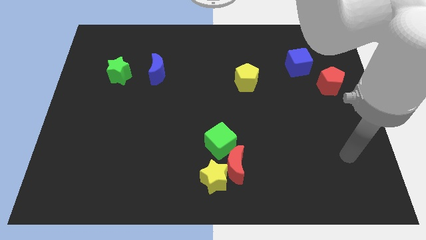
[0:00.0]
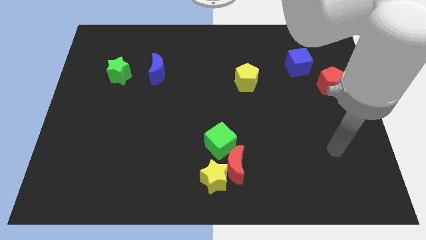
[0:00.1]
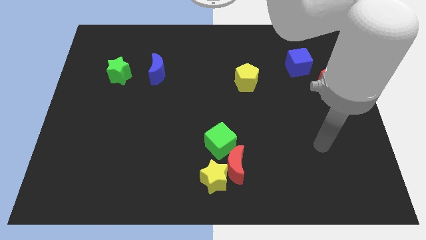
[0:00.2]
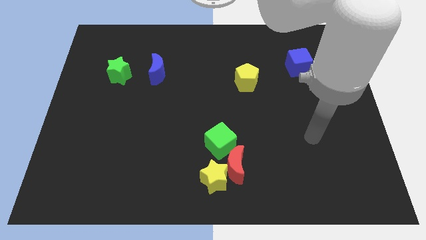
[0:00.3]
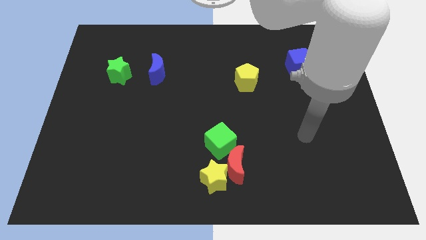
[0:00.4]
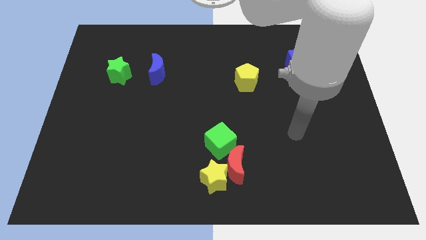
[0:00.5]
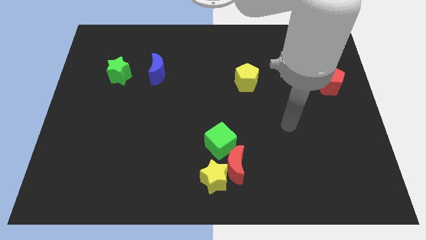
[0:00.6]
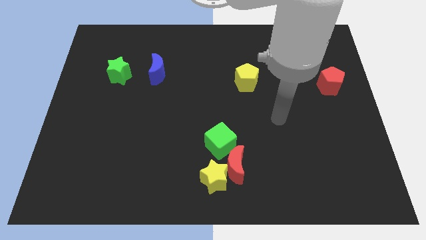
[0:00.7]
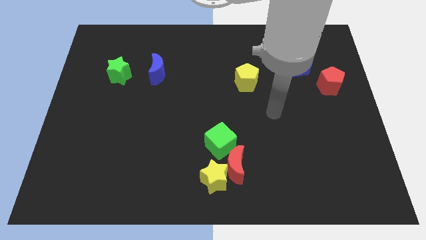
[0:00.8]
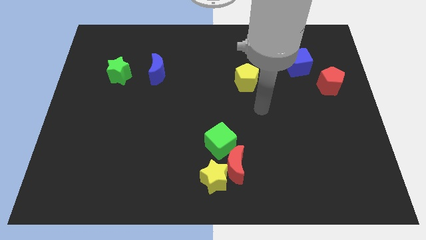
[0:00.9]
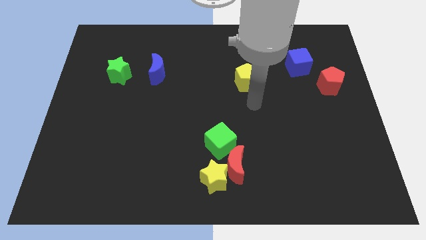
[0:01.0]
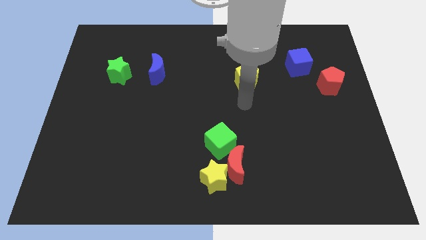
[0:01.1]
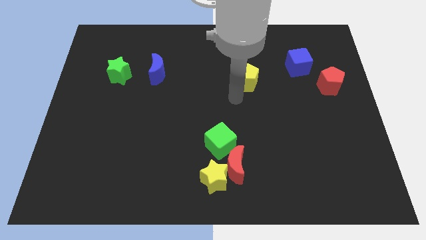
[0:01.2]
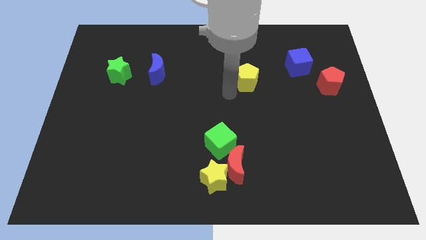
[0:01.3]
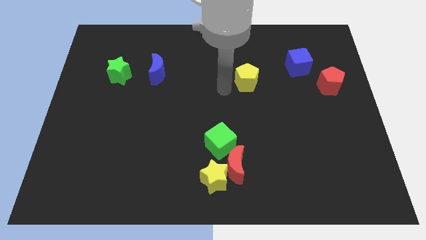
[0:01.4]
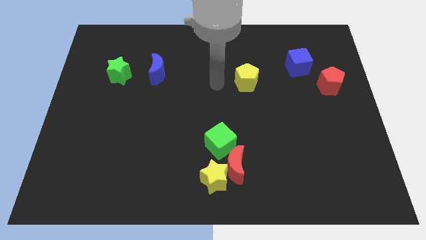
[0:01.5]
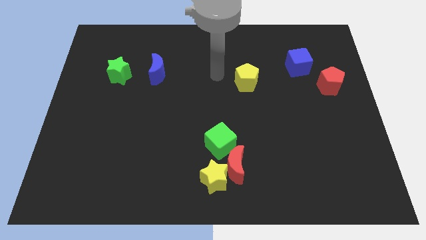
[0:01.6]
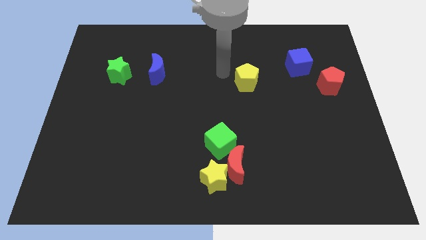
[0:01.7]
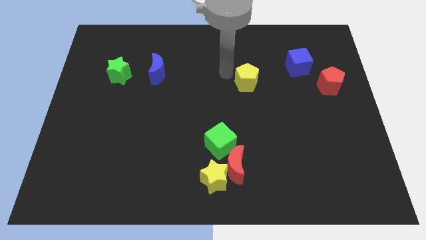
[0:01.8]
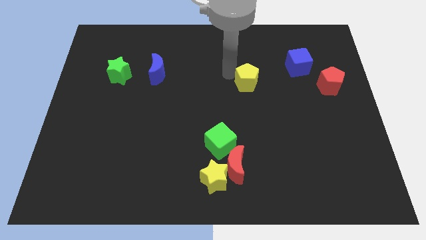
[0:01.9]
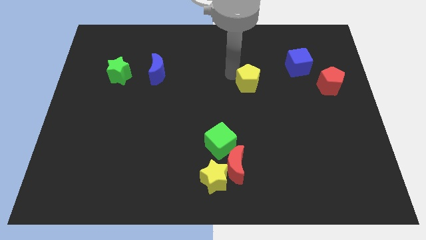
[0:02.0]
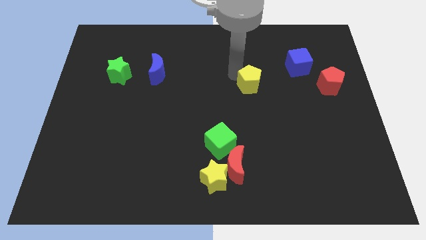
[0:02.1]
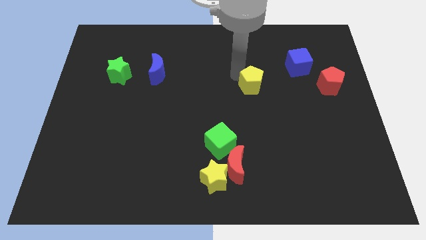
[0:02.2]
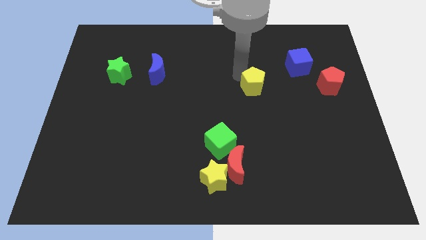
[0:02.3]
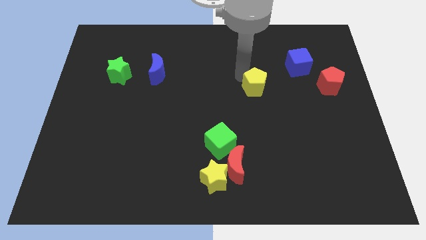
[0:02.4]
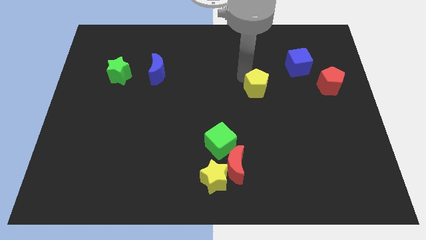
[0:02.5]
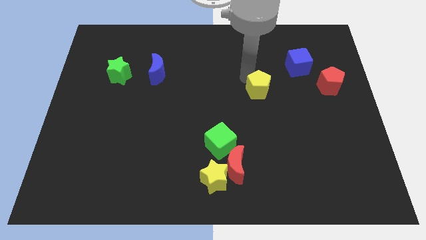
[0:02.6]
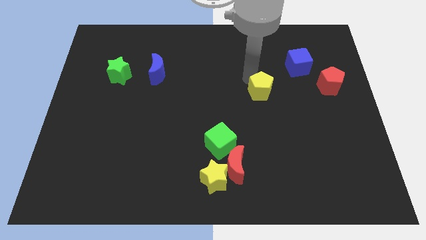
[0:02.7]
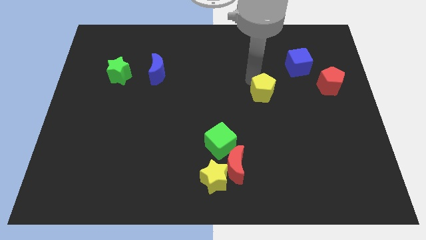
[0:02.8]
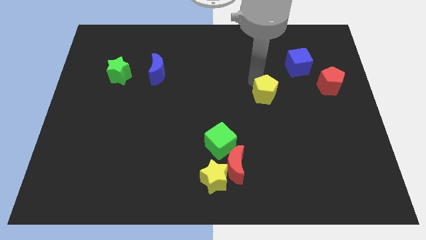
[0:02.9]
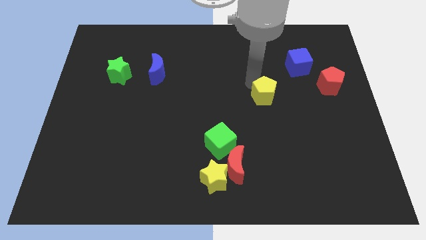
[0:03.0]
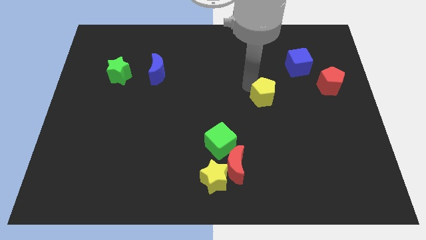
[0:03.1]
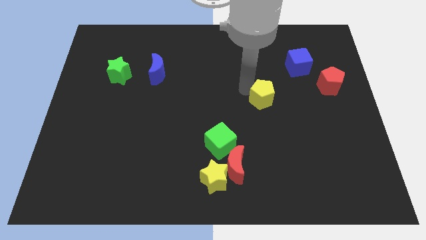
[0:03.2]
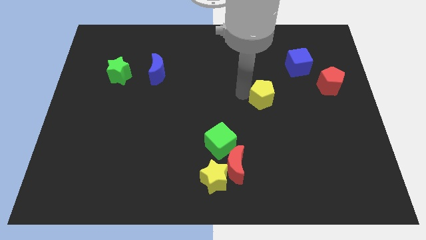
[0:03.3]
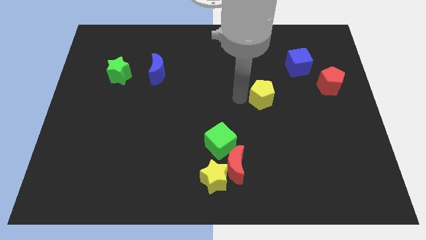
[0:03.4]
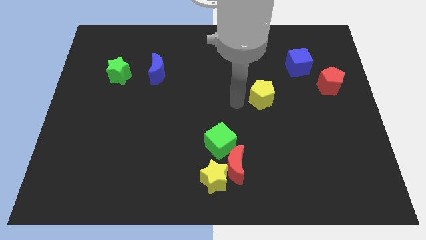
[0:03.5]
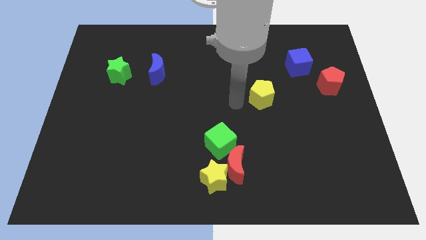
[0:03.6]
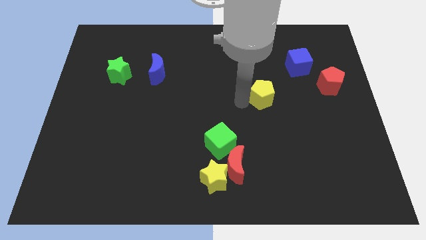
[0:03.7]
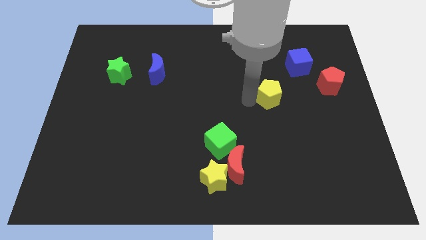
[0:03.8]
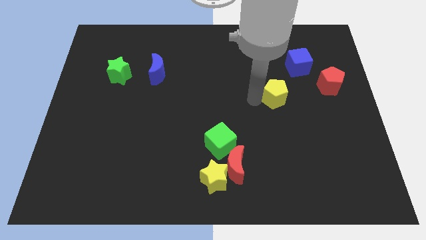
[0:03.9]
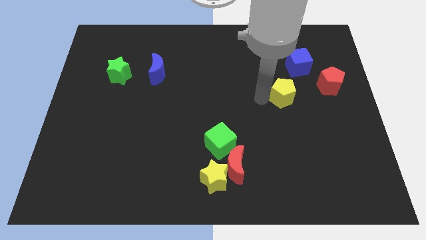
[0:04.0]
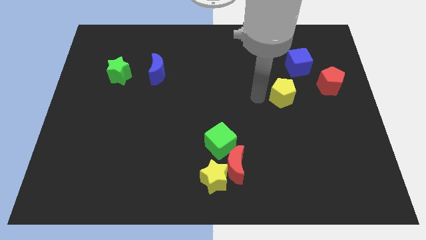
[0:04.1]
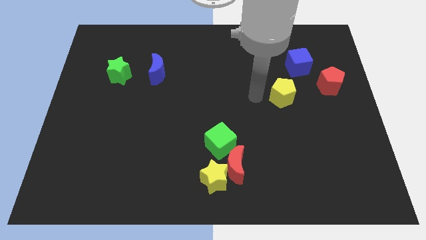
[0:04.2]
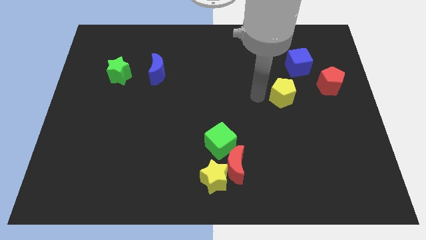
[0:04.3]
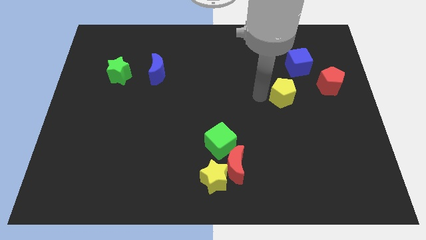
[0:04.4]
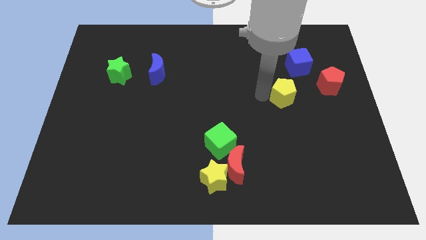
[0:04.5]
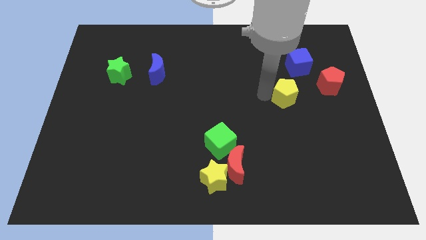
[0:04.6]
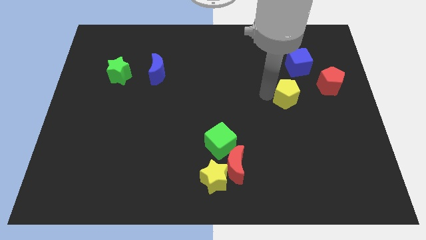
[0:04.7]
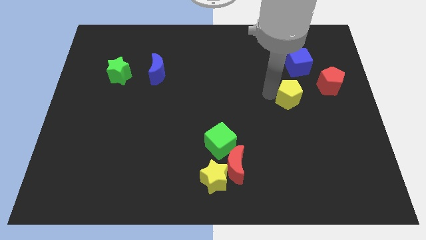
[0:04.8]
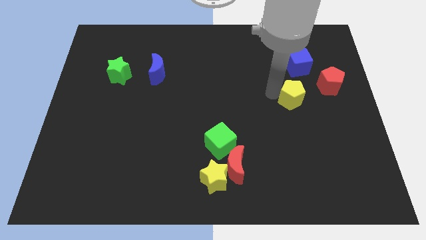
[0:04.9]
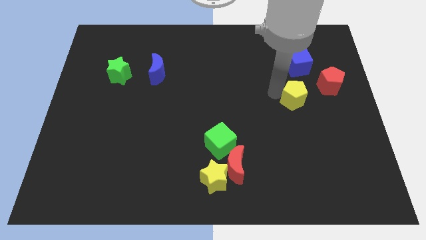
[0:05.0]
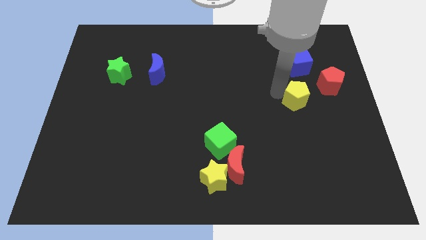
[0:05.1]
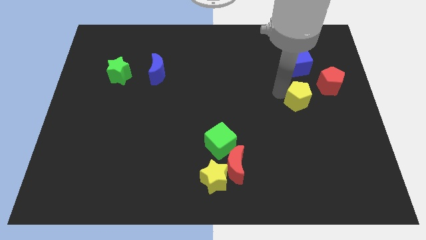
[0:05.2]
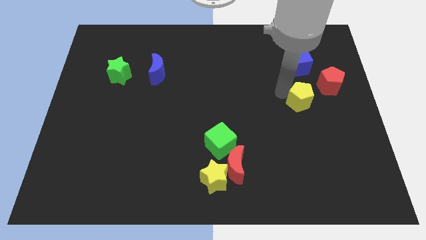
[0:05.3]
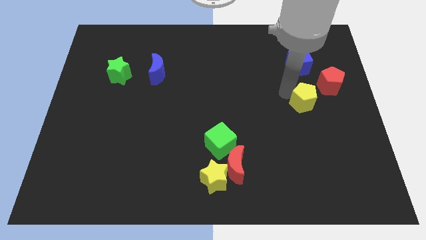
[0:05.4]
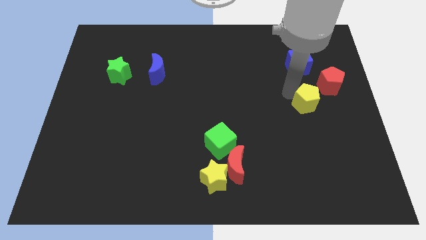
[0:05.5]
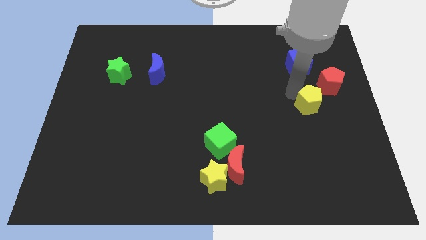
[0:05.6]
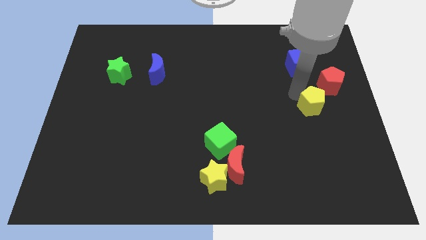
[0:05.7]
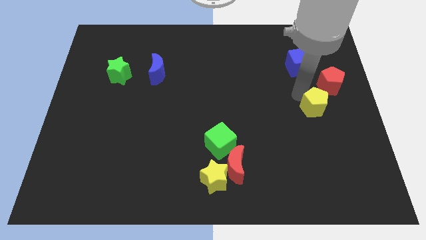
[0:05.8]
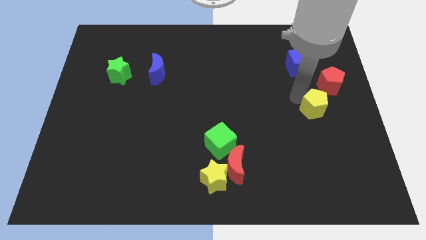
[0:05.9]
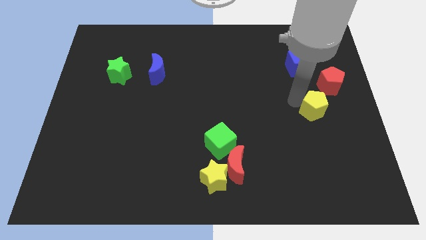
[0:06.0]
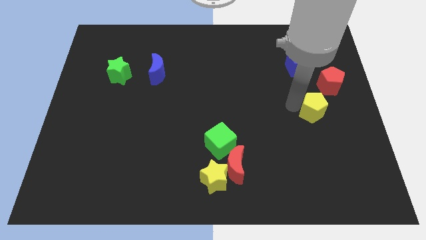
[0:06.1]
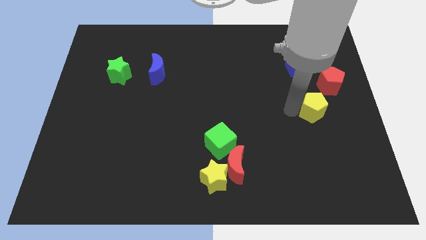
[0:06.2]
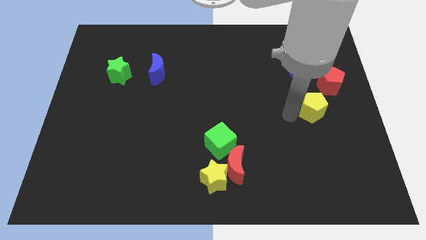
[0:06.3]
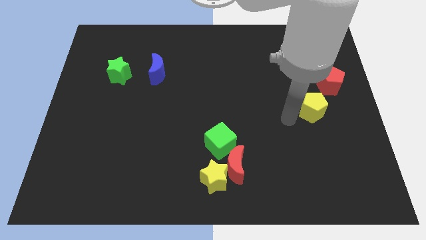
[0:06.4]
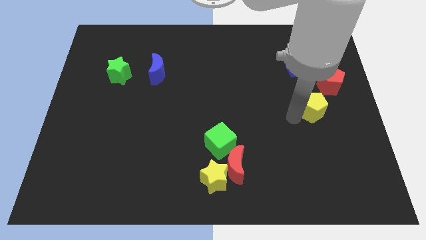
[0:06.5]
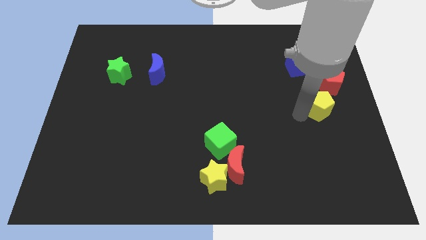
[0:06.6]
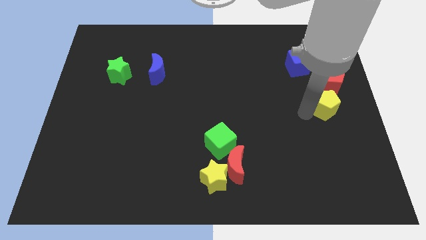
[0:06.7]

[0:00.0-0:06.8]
slide the yellow pentagon to the right side

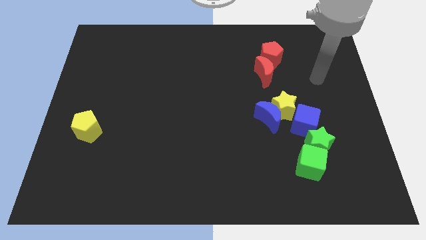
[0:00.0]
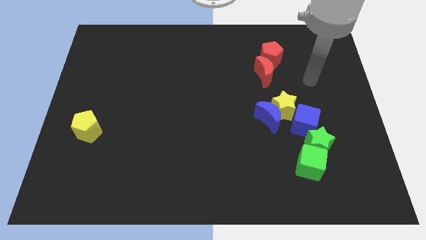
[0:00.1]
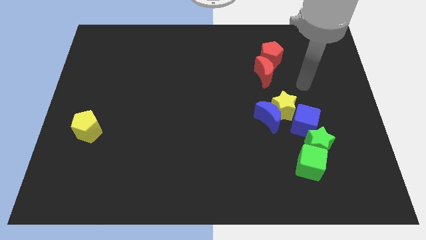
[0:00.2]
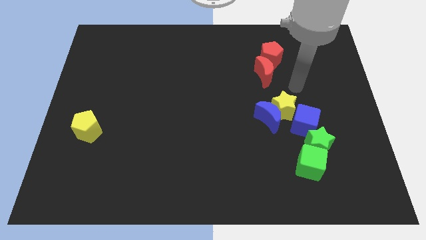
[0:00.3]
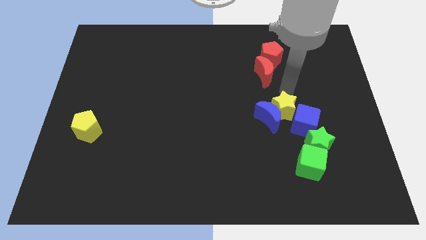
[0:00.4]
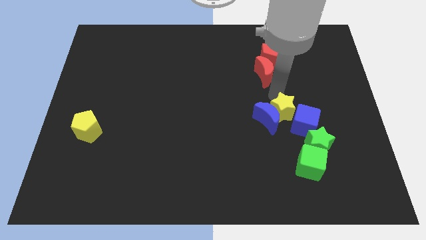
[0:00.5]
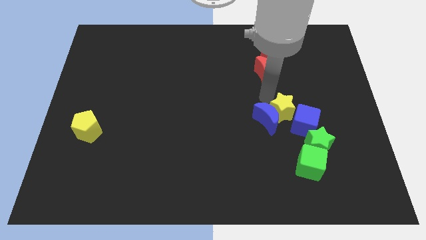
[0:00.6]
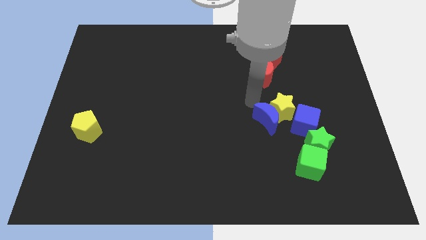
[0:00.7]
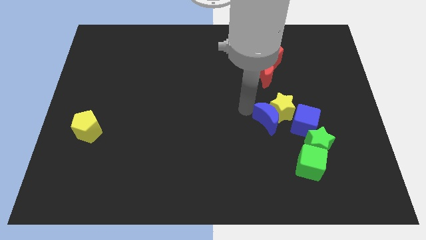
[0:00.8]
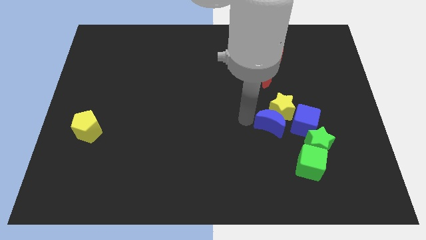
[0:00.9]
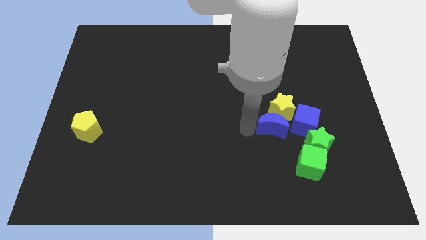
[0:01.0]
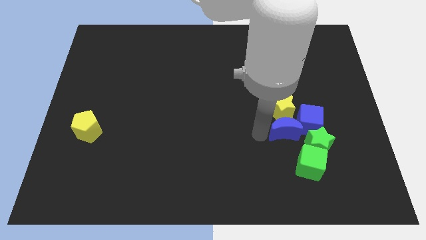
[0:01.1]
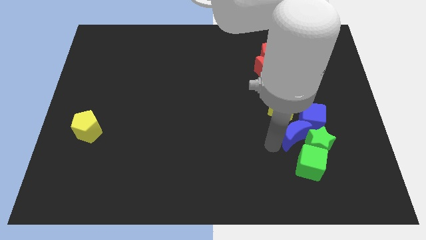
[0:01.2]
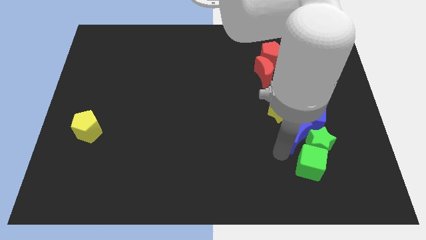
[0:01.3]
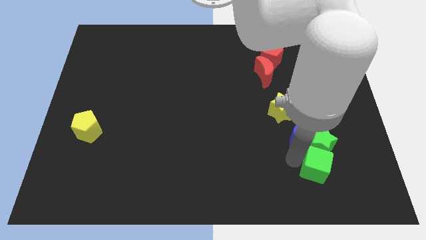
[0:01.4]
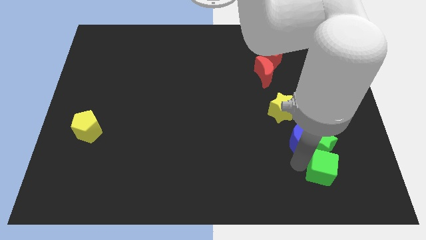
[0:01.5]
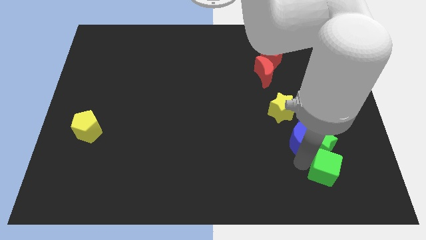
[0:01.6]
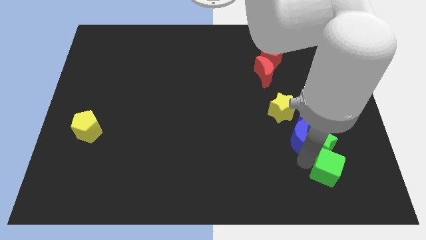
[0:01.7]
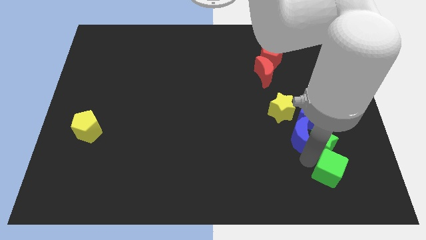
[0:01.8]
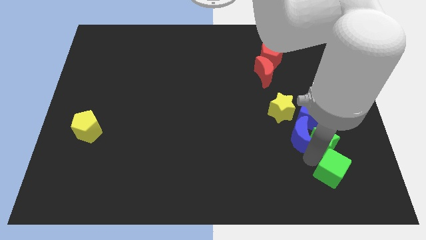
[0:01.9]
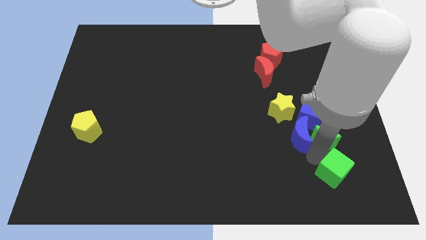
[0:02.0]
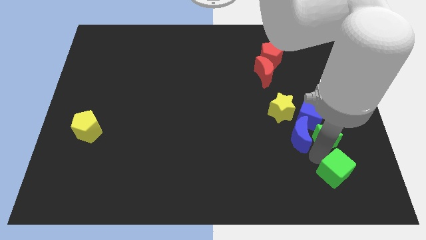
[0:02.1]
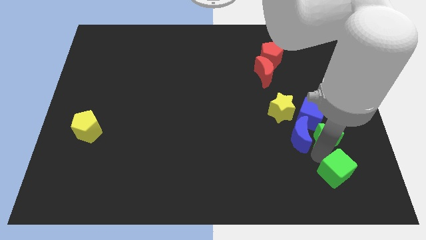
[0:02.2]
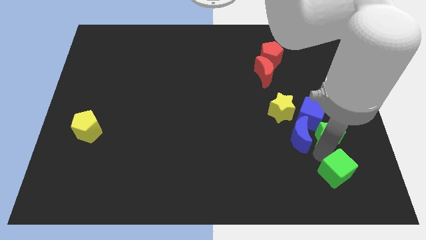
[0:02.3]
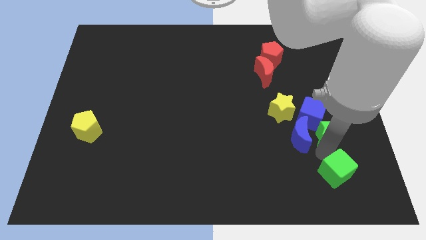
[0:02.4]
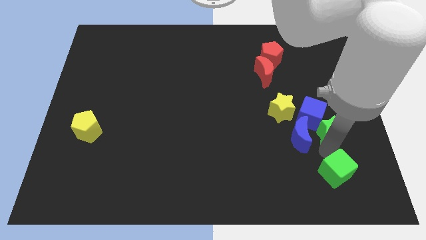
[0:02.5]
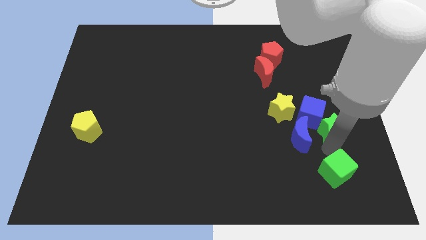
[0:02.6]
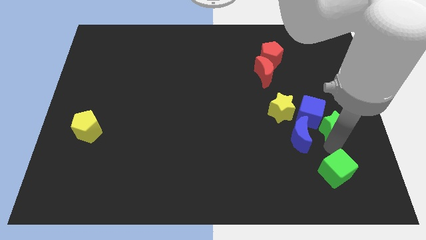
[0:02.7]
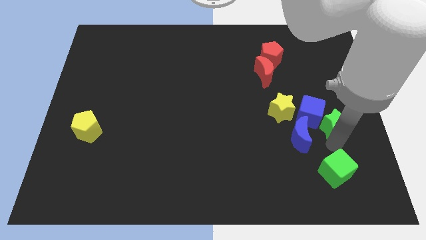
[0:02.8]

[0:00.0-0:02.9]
put the green star to the right side of the board
